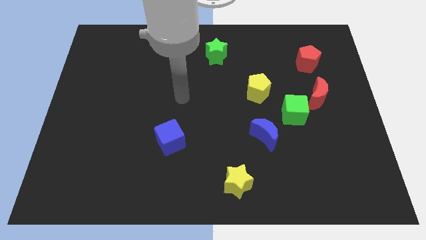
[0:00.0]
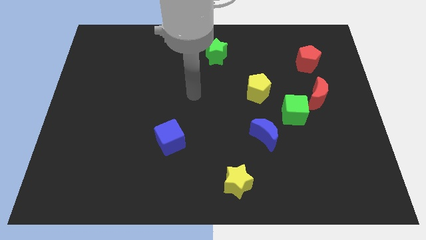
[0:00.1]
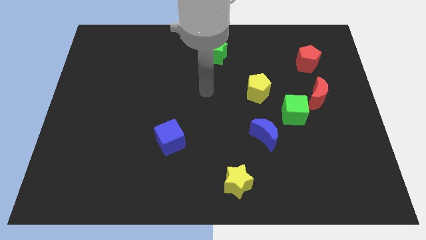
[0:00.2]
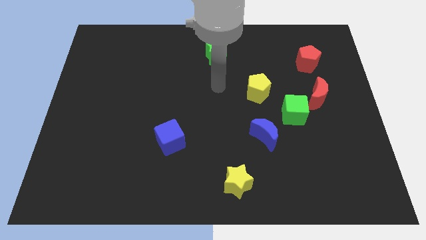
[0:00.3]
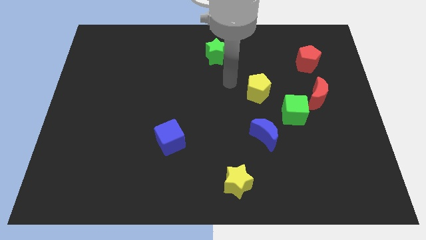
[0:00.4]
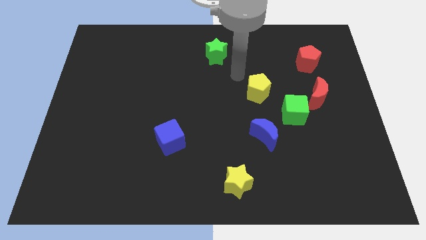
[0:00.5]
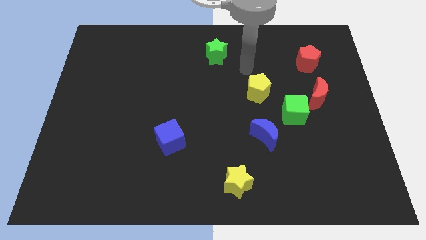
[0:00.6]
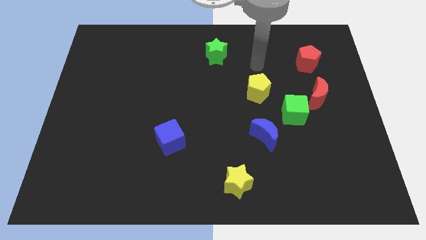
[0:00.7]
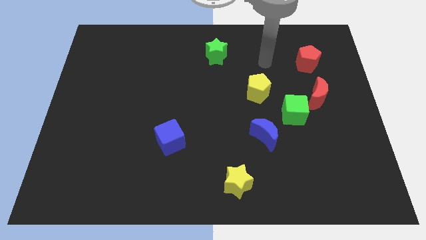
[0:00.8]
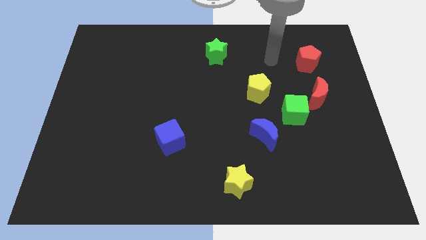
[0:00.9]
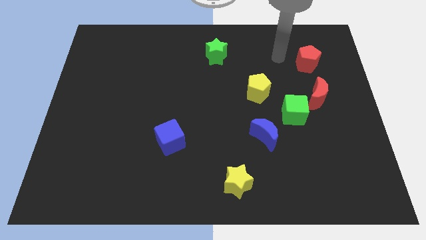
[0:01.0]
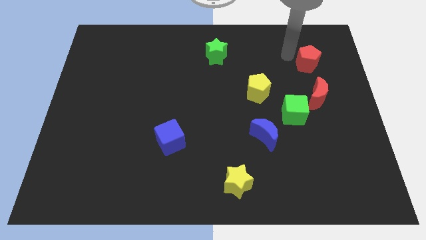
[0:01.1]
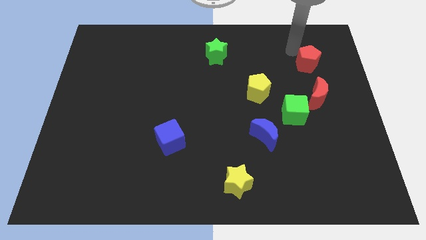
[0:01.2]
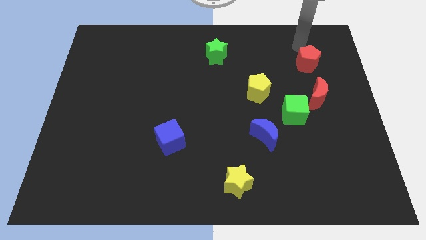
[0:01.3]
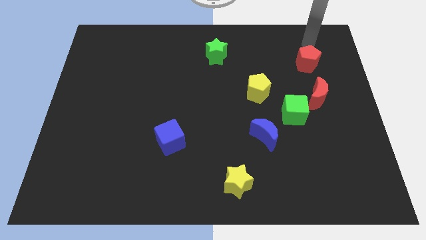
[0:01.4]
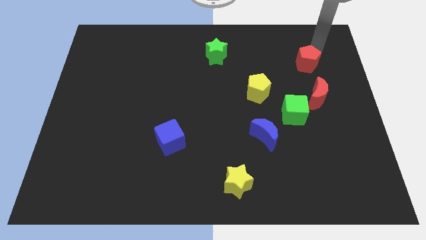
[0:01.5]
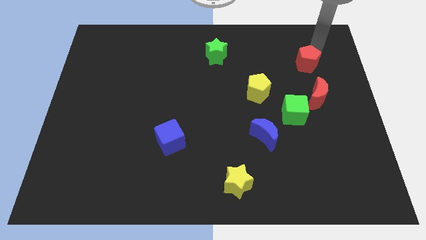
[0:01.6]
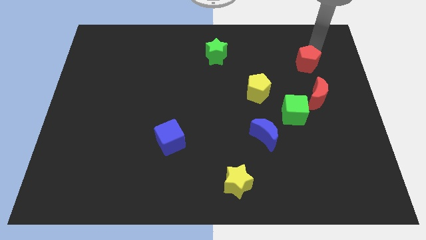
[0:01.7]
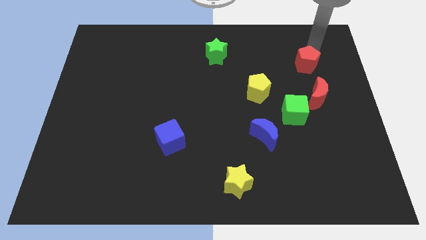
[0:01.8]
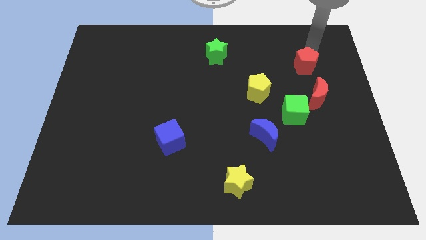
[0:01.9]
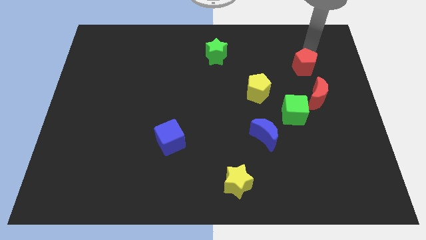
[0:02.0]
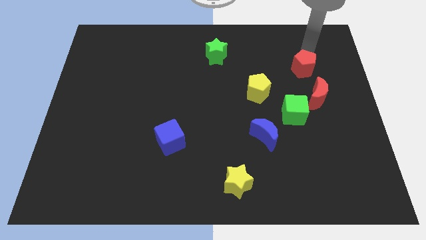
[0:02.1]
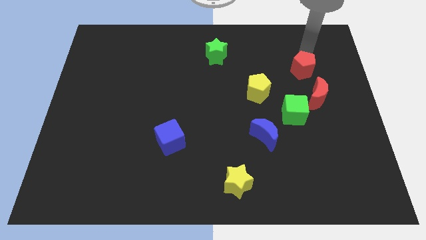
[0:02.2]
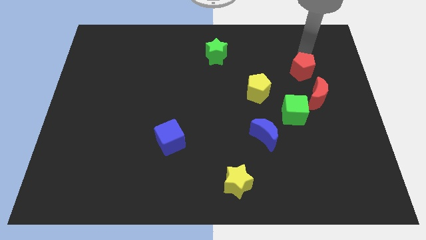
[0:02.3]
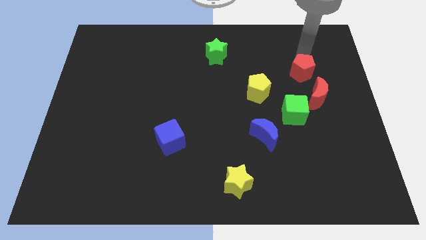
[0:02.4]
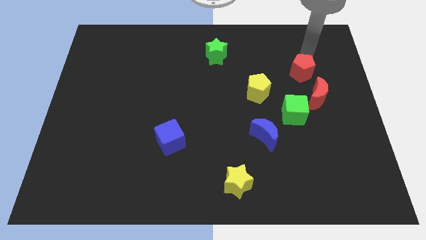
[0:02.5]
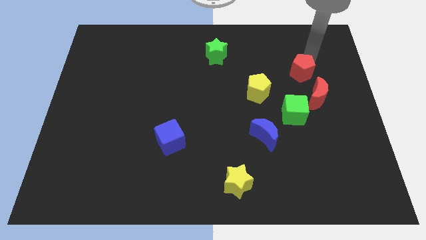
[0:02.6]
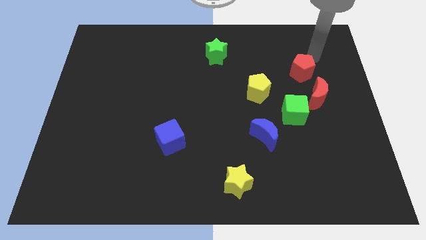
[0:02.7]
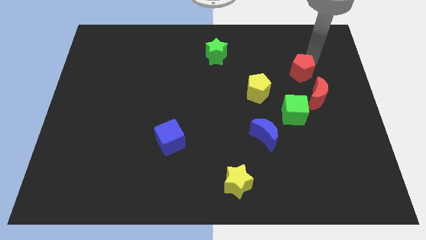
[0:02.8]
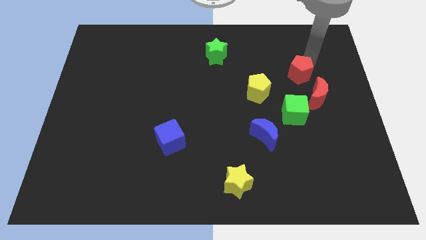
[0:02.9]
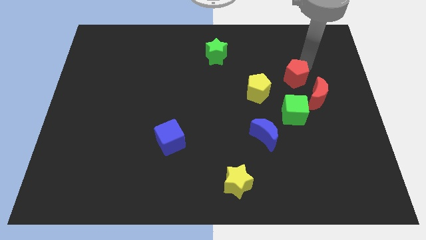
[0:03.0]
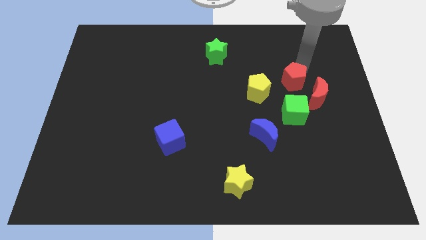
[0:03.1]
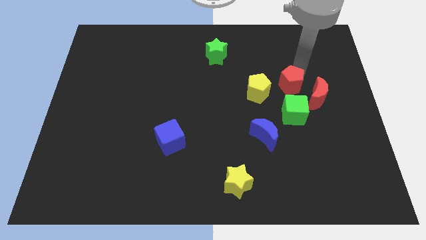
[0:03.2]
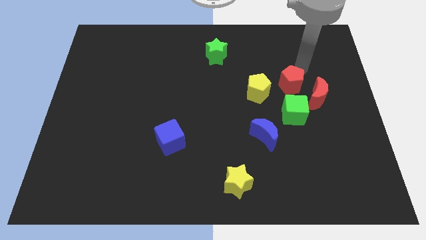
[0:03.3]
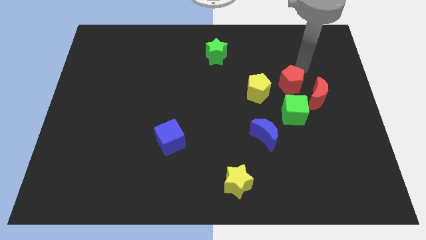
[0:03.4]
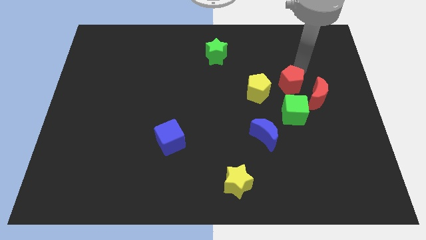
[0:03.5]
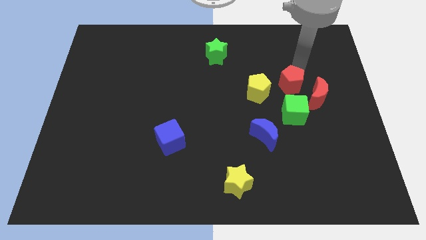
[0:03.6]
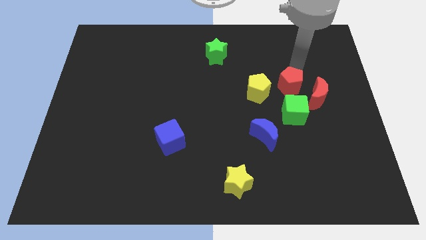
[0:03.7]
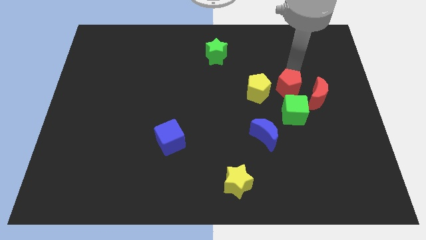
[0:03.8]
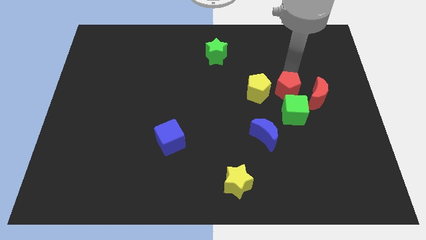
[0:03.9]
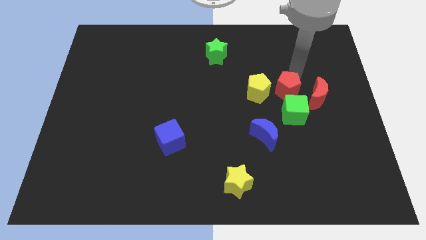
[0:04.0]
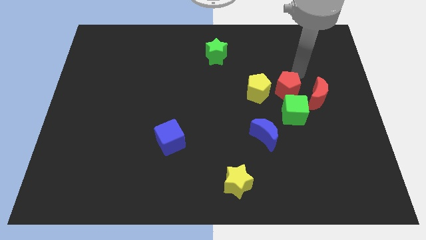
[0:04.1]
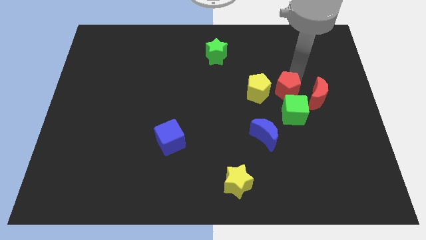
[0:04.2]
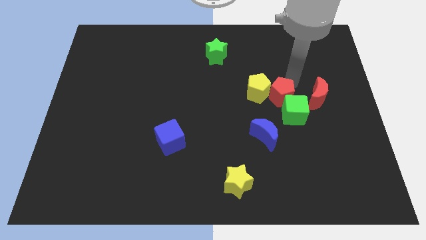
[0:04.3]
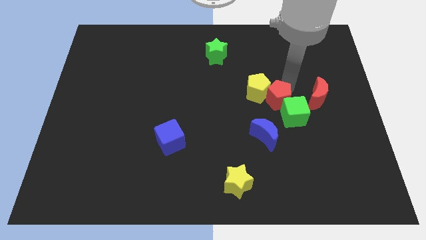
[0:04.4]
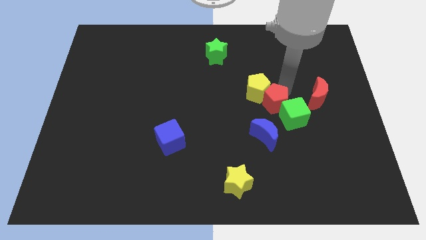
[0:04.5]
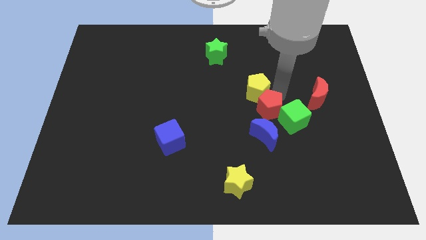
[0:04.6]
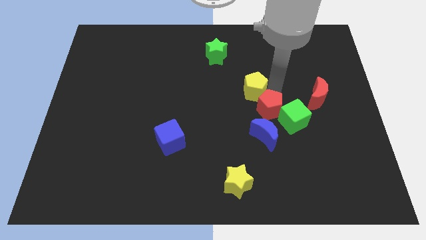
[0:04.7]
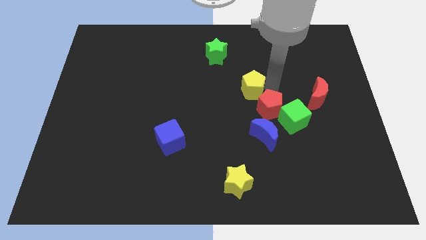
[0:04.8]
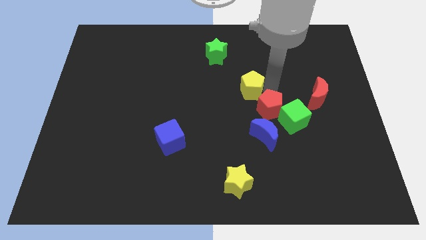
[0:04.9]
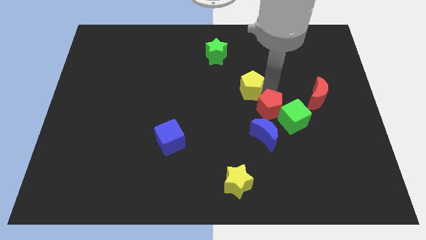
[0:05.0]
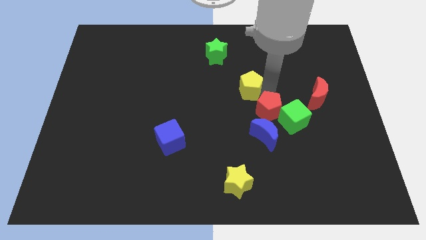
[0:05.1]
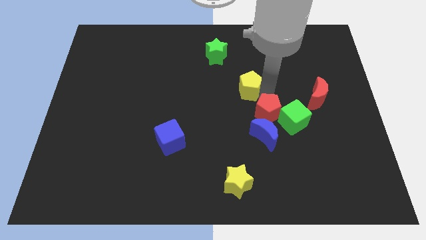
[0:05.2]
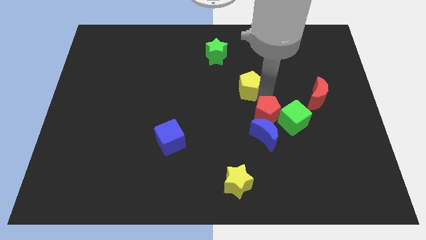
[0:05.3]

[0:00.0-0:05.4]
push the red pentagon to the blue moon

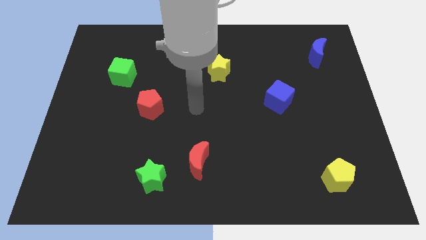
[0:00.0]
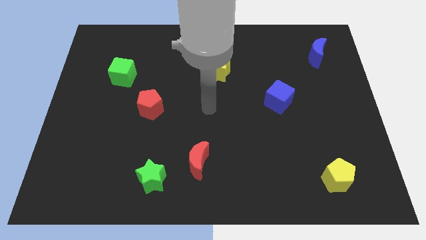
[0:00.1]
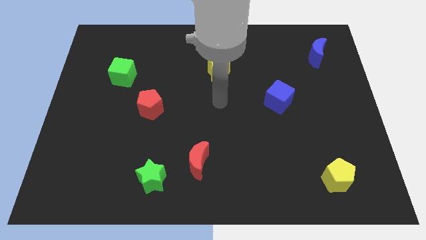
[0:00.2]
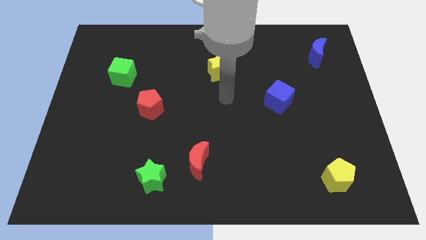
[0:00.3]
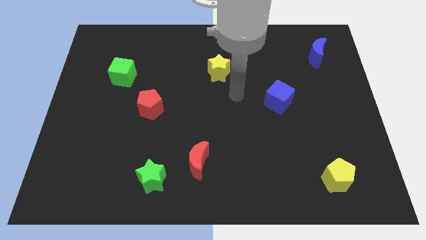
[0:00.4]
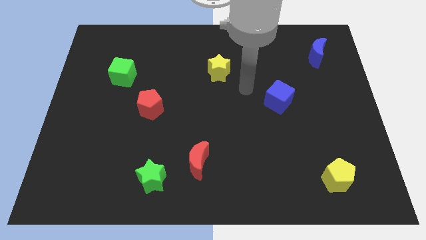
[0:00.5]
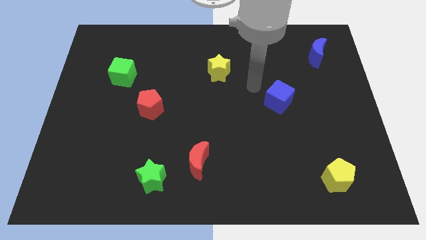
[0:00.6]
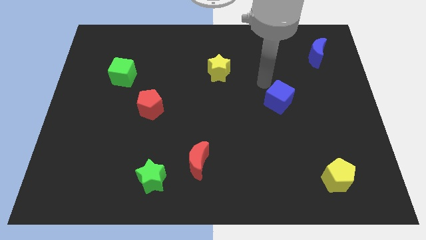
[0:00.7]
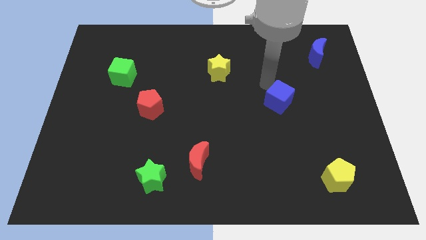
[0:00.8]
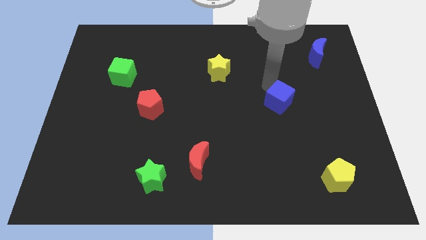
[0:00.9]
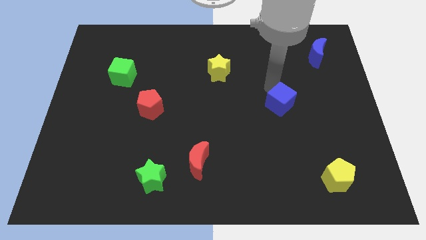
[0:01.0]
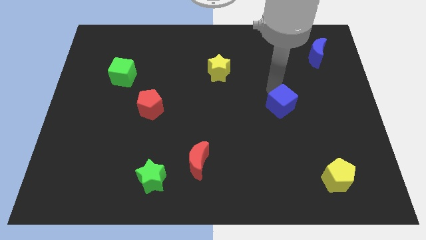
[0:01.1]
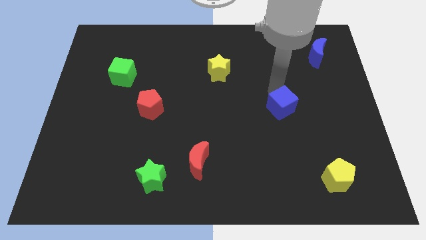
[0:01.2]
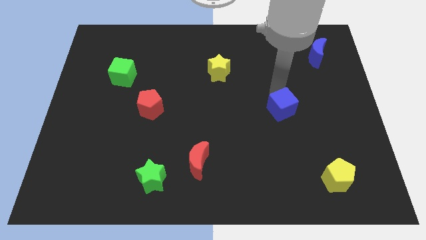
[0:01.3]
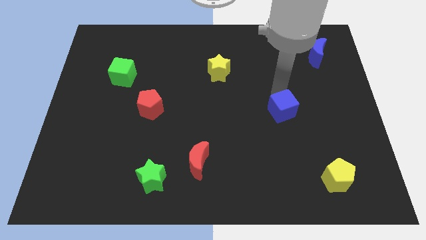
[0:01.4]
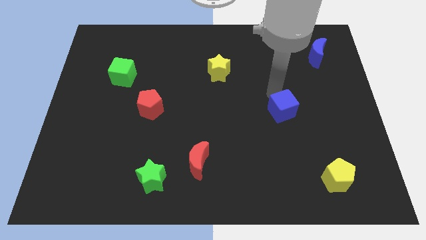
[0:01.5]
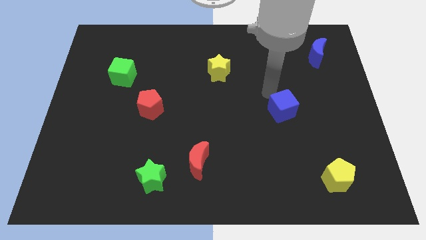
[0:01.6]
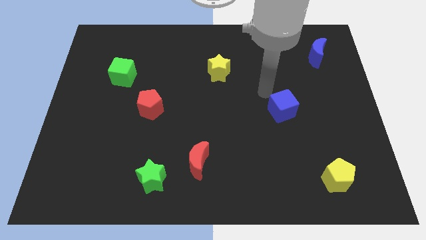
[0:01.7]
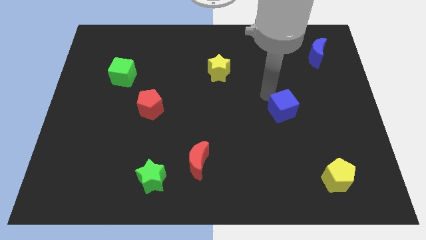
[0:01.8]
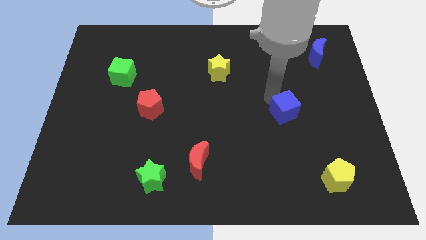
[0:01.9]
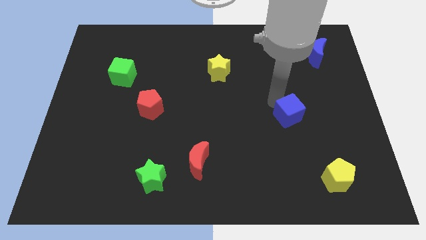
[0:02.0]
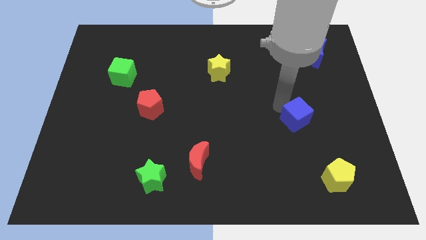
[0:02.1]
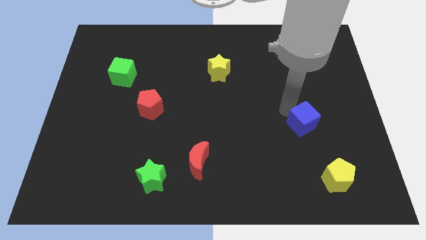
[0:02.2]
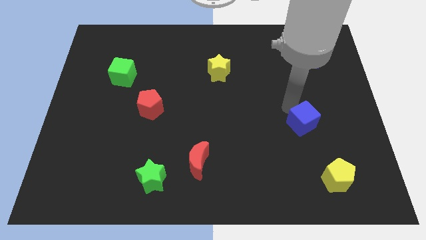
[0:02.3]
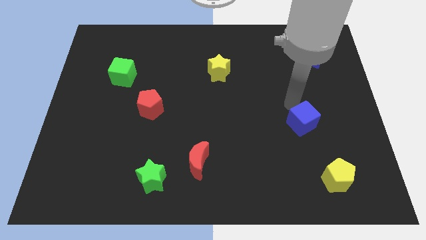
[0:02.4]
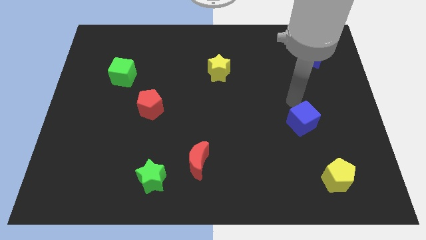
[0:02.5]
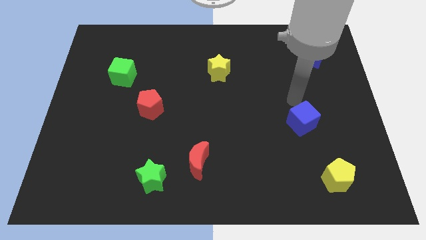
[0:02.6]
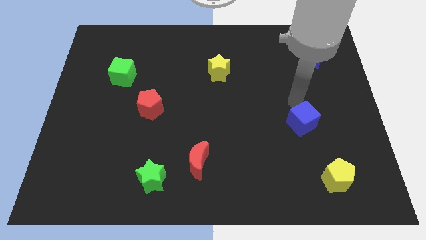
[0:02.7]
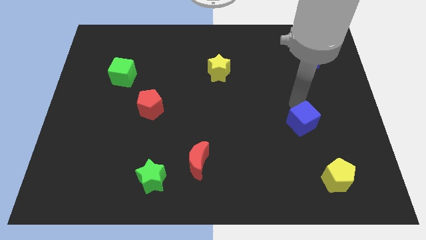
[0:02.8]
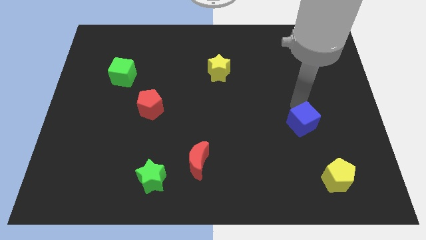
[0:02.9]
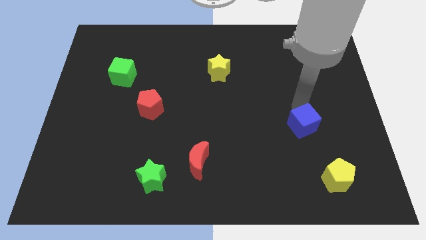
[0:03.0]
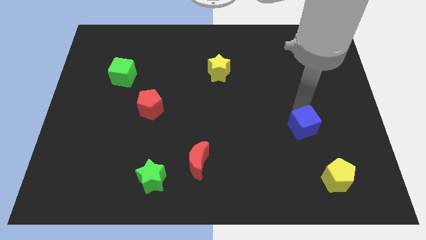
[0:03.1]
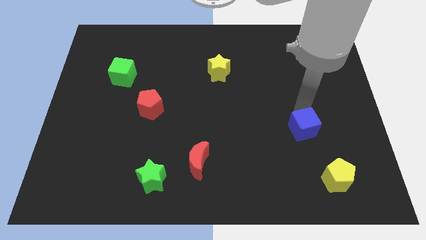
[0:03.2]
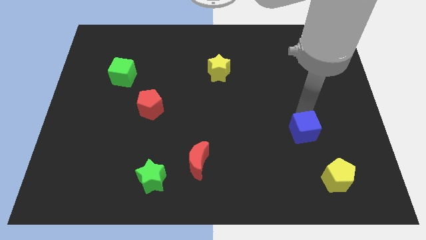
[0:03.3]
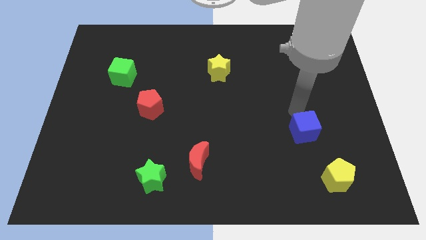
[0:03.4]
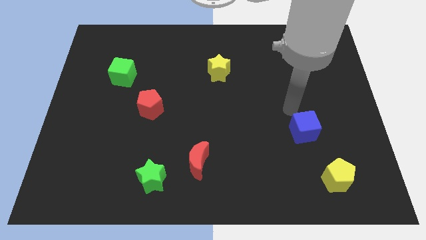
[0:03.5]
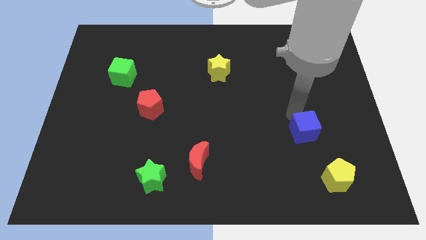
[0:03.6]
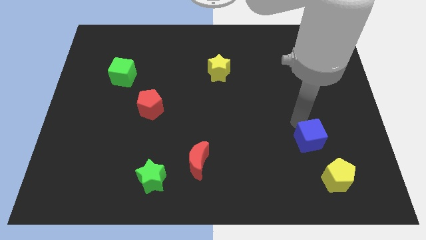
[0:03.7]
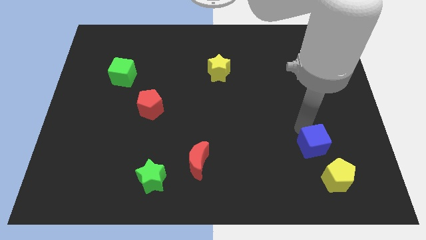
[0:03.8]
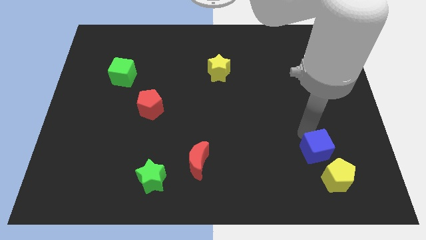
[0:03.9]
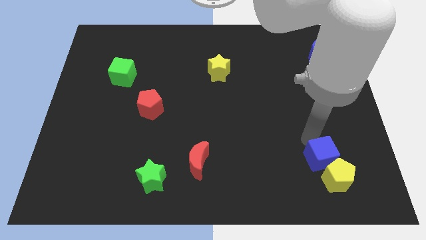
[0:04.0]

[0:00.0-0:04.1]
slide the blue cube towards the yellow pentagon
